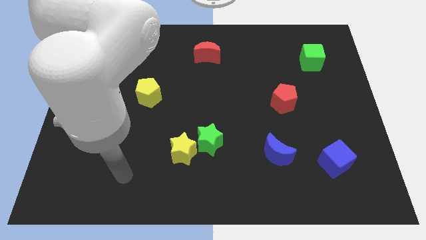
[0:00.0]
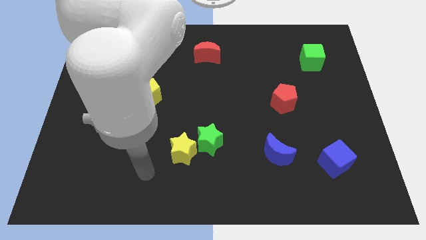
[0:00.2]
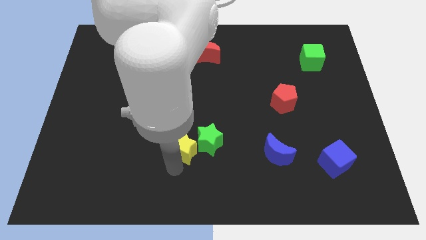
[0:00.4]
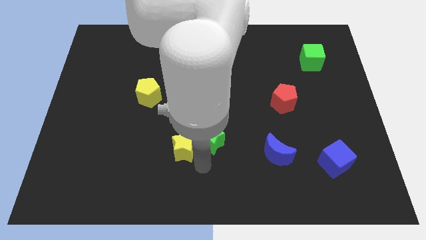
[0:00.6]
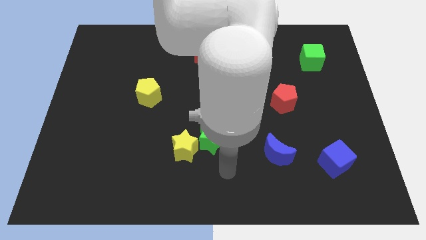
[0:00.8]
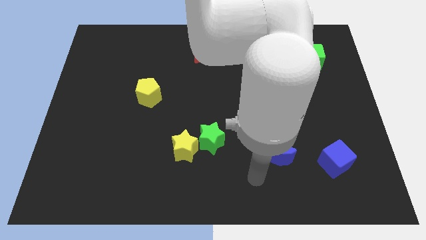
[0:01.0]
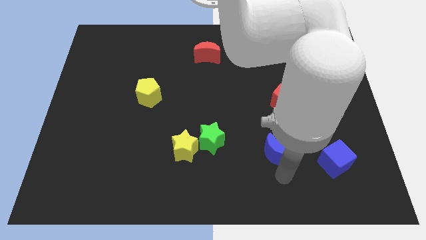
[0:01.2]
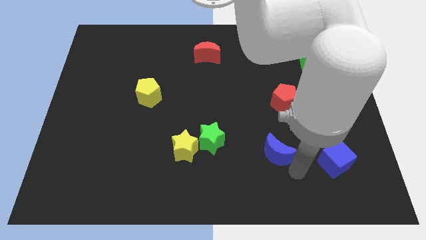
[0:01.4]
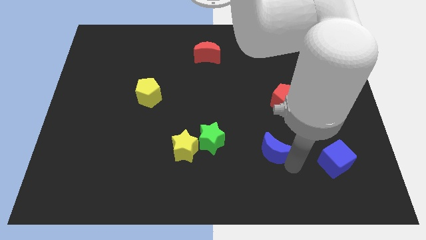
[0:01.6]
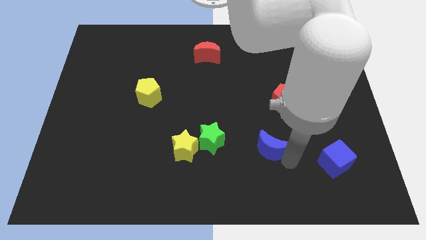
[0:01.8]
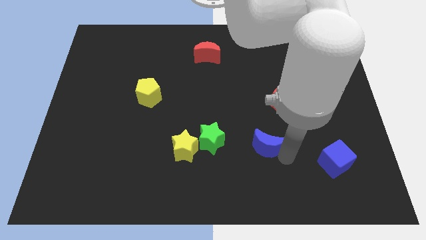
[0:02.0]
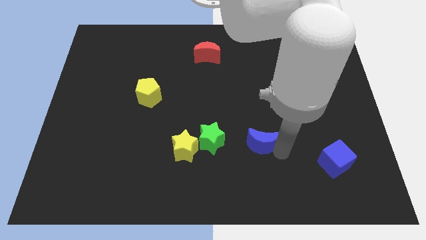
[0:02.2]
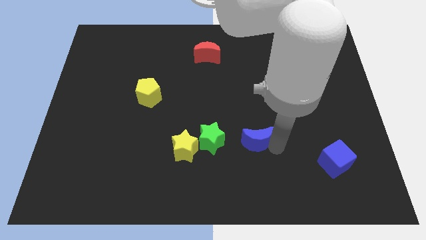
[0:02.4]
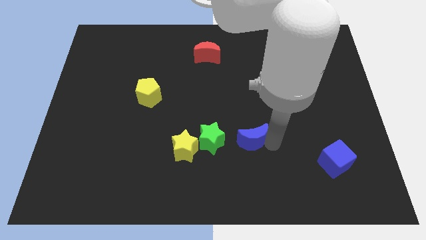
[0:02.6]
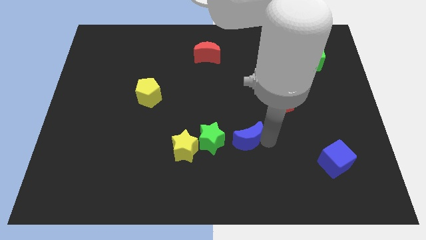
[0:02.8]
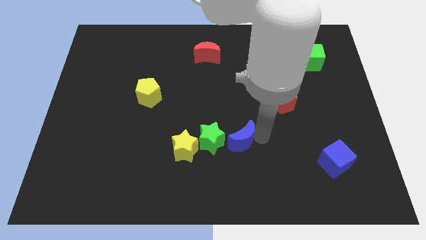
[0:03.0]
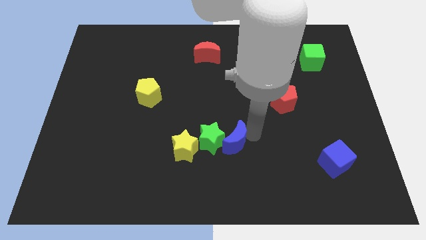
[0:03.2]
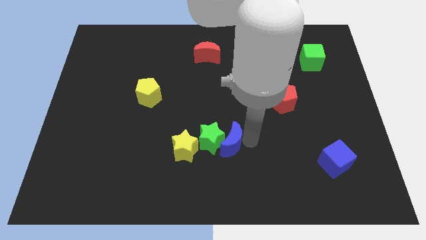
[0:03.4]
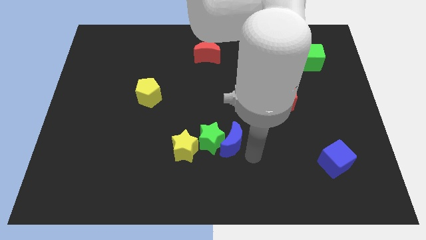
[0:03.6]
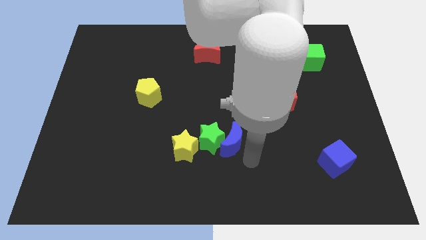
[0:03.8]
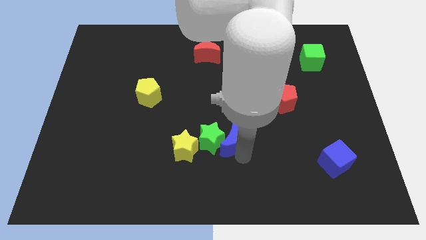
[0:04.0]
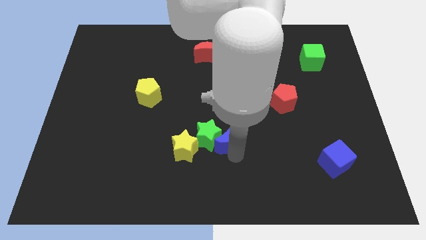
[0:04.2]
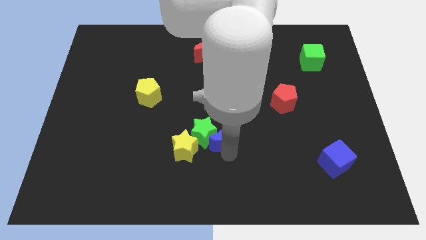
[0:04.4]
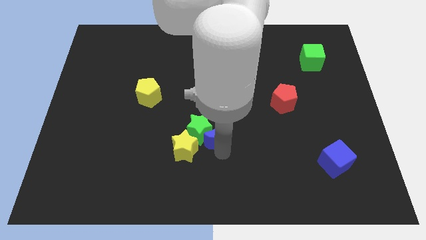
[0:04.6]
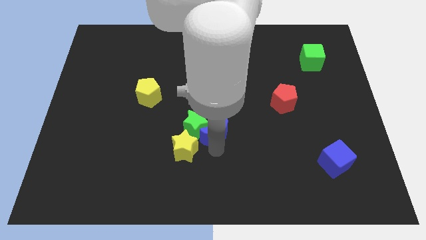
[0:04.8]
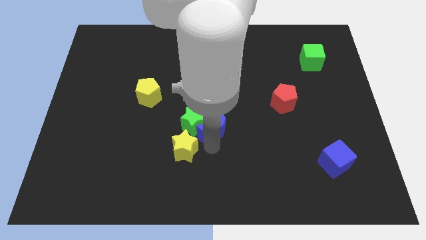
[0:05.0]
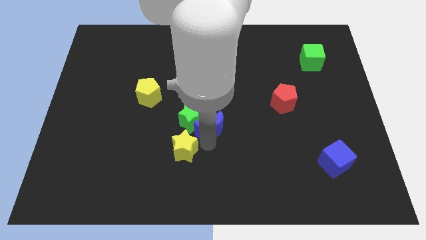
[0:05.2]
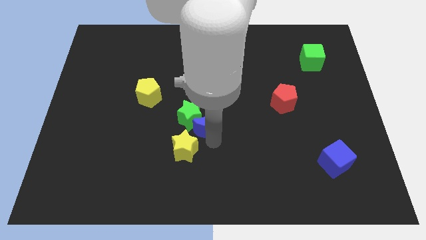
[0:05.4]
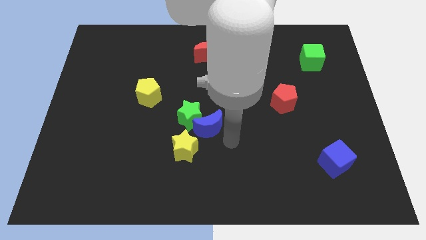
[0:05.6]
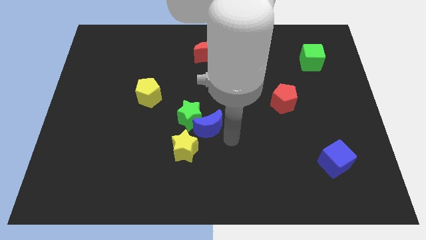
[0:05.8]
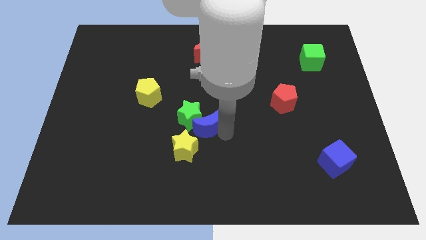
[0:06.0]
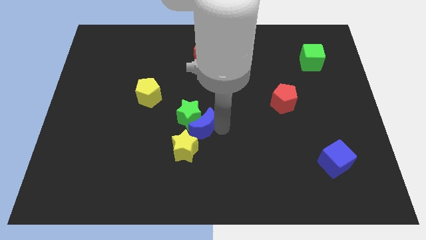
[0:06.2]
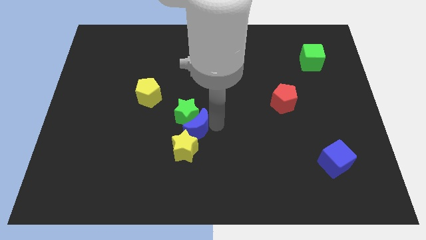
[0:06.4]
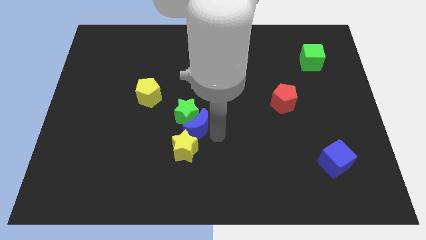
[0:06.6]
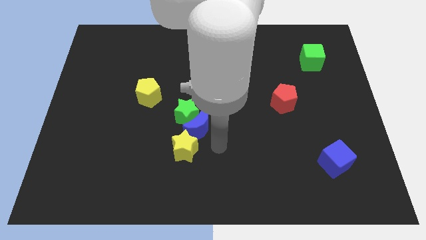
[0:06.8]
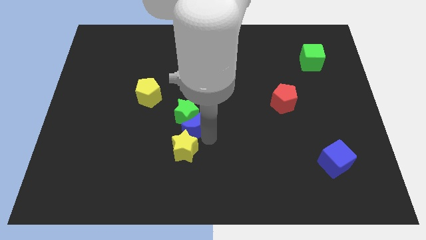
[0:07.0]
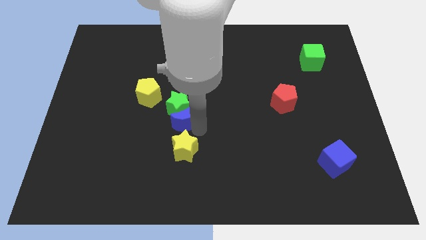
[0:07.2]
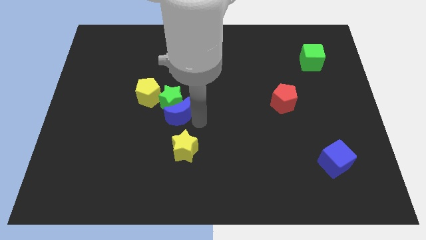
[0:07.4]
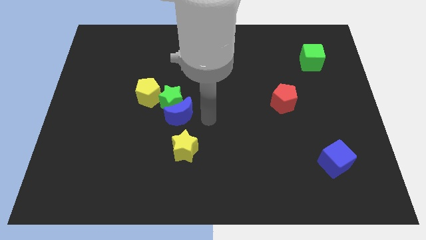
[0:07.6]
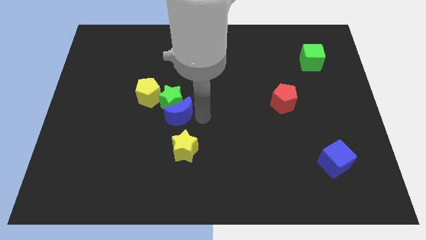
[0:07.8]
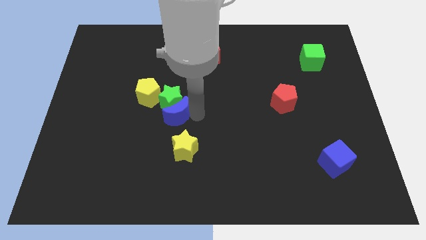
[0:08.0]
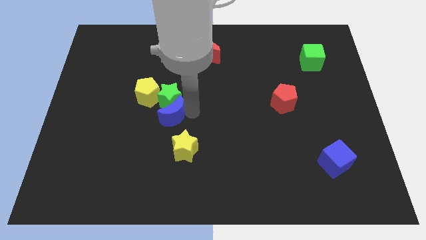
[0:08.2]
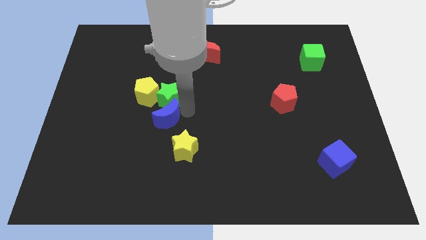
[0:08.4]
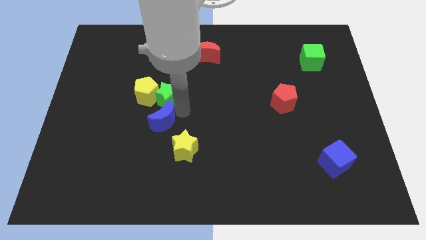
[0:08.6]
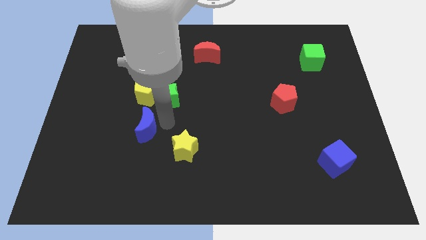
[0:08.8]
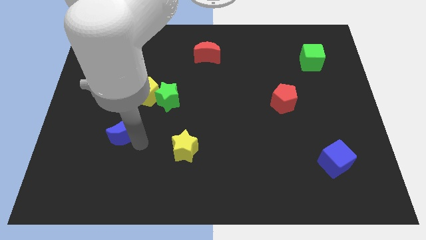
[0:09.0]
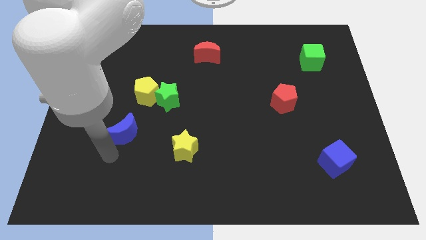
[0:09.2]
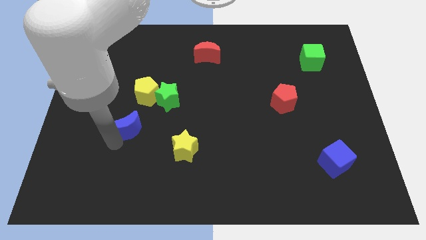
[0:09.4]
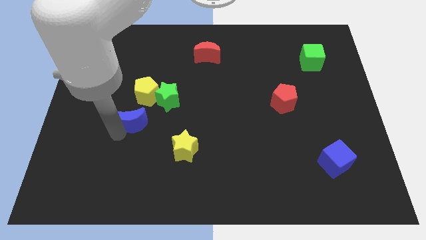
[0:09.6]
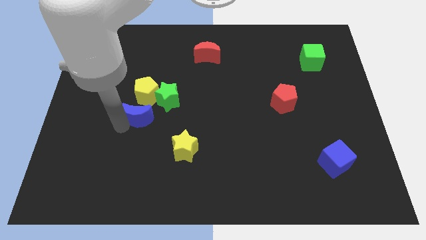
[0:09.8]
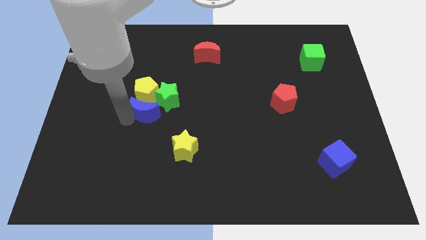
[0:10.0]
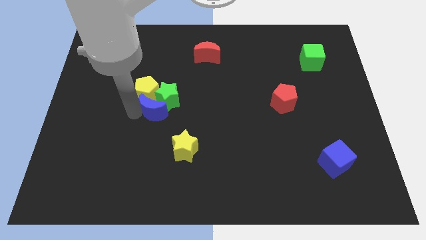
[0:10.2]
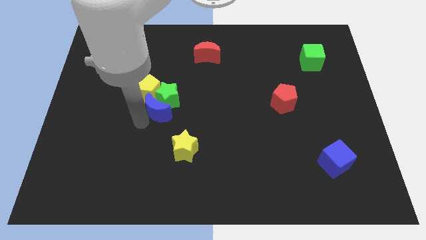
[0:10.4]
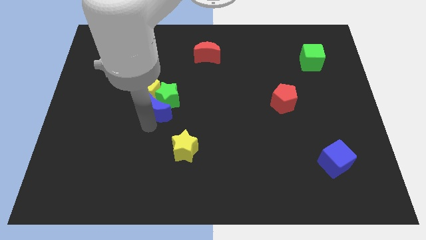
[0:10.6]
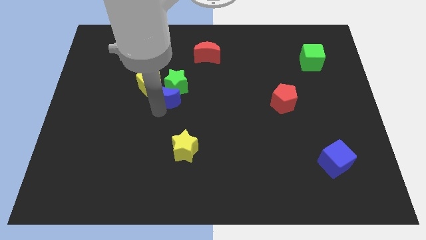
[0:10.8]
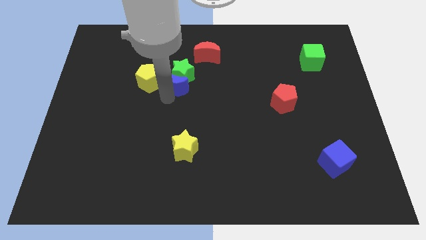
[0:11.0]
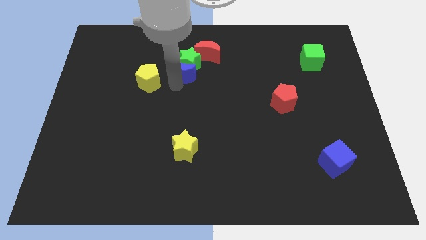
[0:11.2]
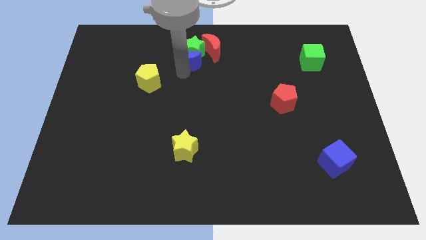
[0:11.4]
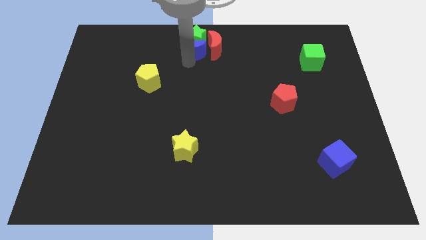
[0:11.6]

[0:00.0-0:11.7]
push the blue moon to the top
